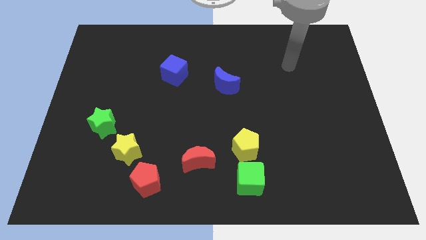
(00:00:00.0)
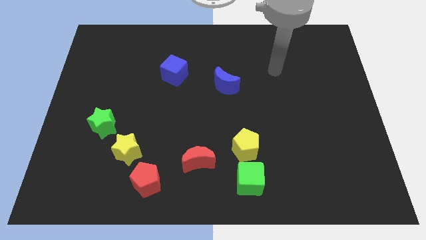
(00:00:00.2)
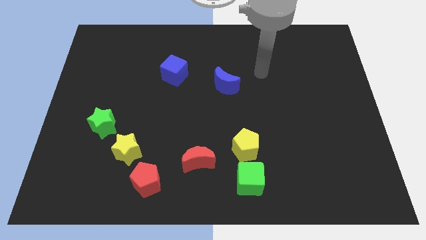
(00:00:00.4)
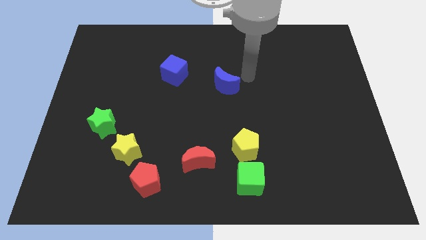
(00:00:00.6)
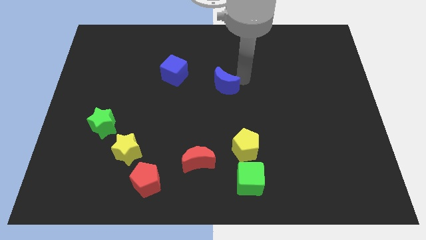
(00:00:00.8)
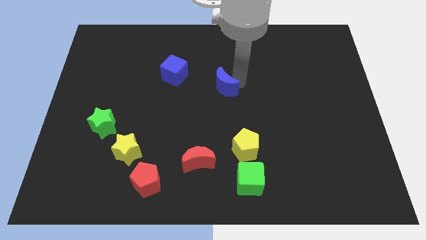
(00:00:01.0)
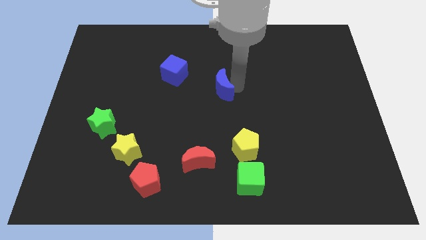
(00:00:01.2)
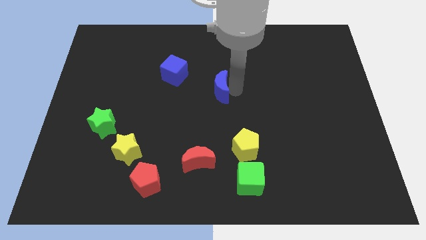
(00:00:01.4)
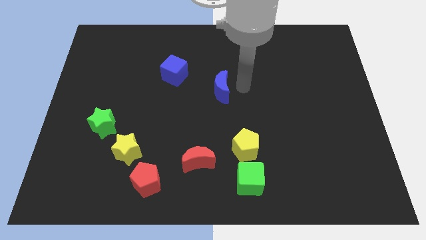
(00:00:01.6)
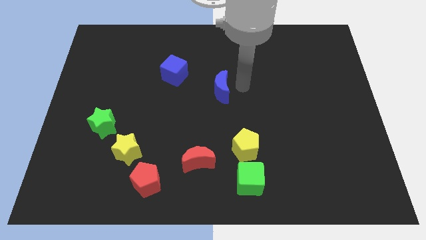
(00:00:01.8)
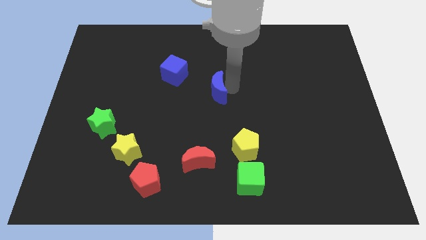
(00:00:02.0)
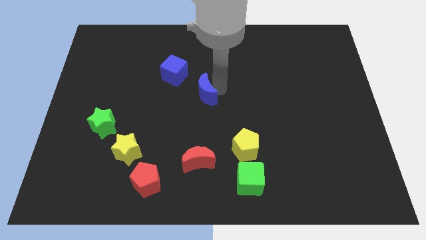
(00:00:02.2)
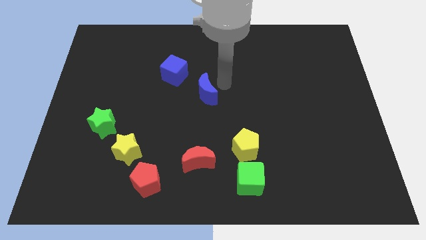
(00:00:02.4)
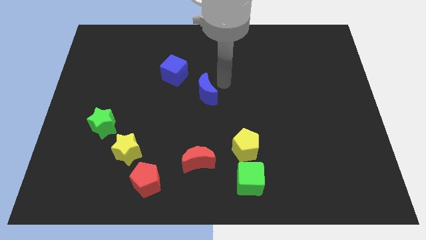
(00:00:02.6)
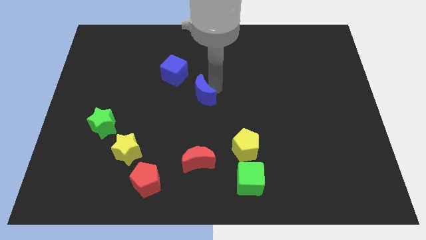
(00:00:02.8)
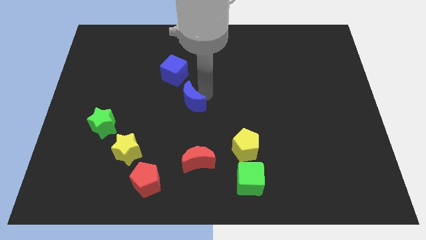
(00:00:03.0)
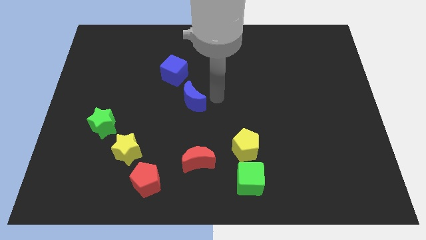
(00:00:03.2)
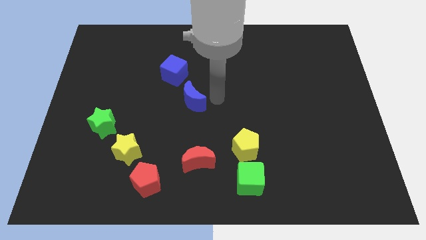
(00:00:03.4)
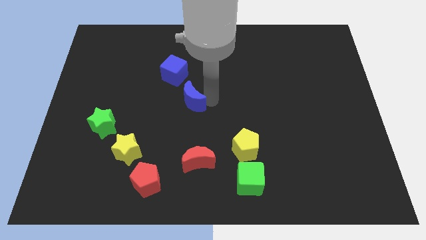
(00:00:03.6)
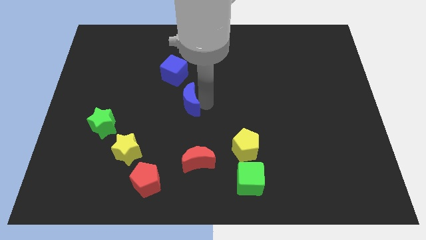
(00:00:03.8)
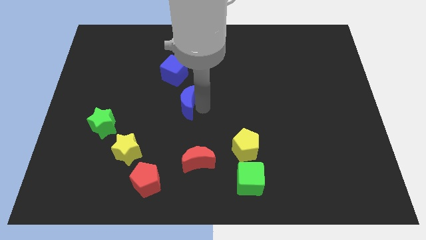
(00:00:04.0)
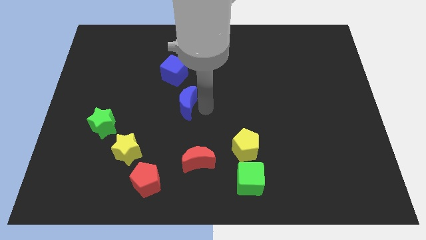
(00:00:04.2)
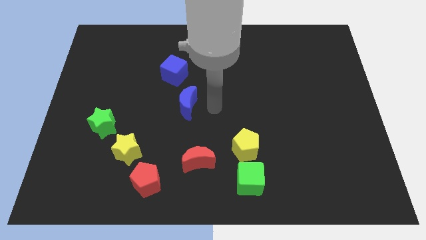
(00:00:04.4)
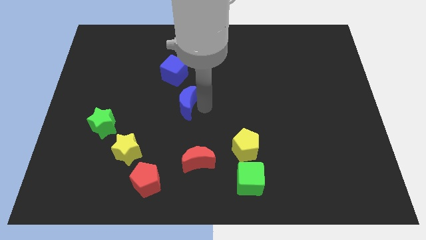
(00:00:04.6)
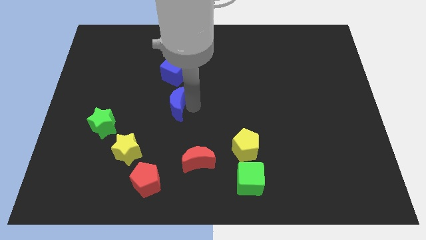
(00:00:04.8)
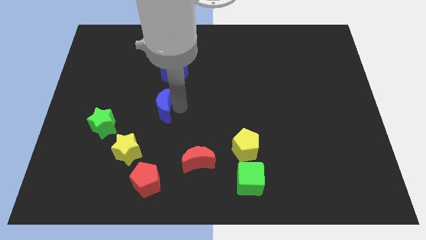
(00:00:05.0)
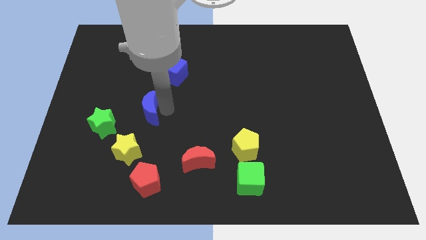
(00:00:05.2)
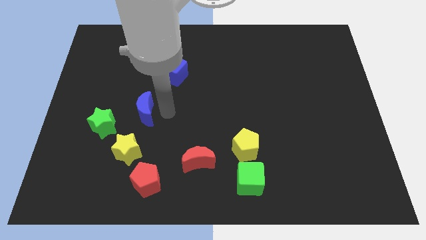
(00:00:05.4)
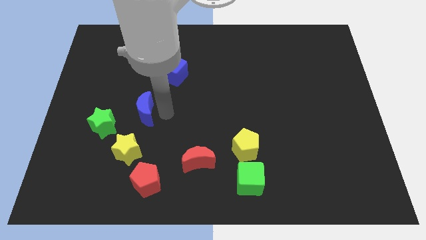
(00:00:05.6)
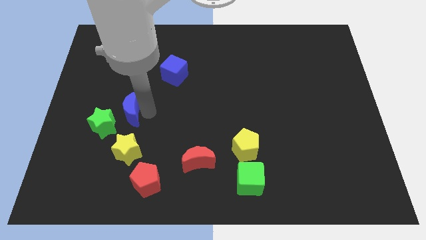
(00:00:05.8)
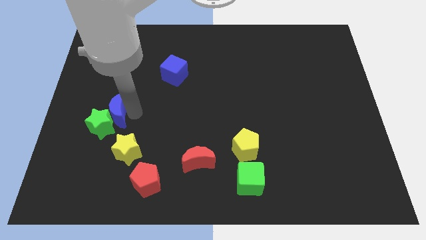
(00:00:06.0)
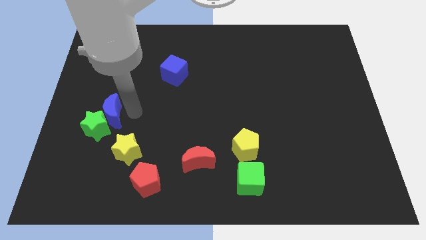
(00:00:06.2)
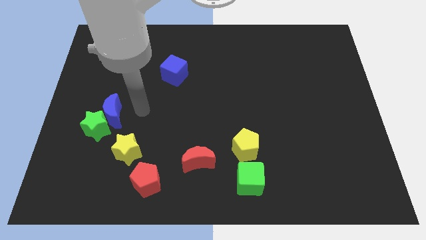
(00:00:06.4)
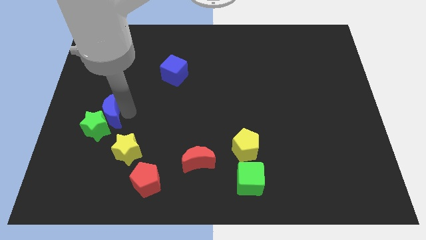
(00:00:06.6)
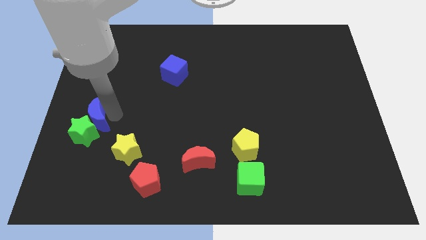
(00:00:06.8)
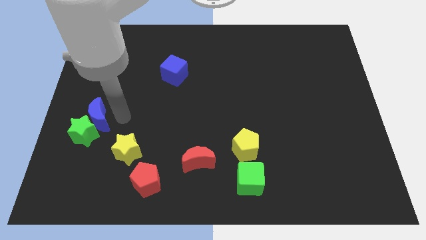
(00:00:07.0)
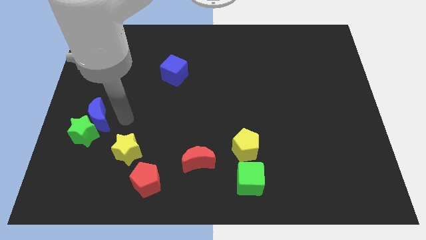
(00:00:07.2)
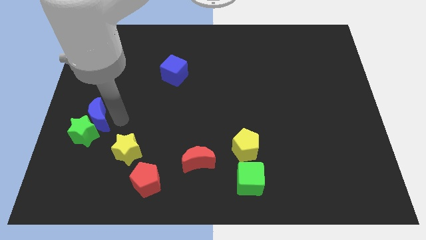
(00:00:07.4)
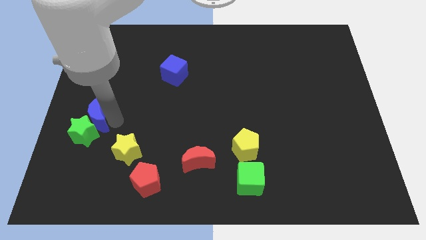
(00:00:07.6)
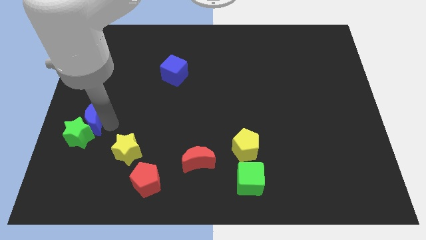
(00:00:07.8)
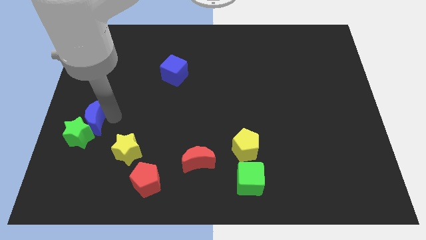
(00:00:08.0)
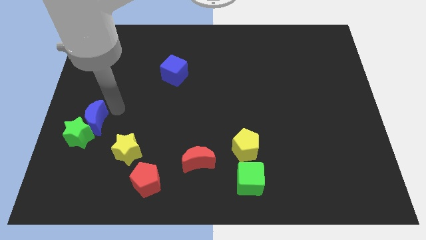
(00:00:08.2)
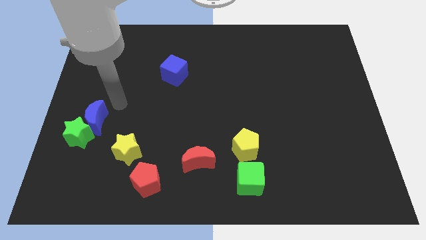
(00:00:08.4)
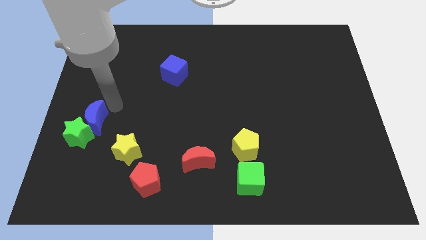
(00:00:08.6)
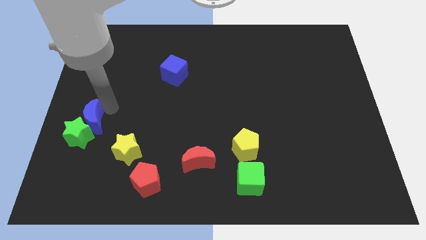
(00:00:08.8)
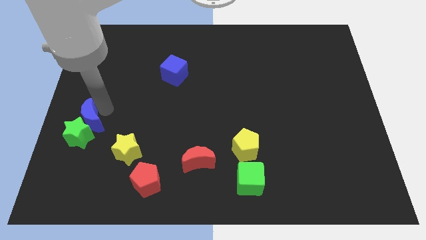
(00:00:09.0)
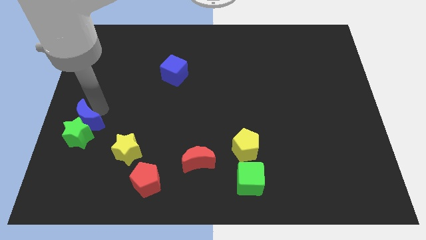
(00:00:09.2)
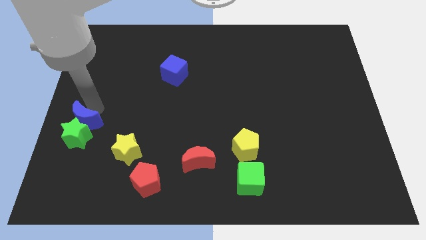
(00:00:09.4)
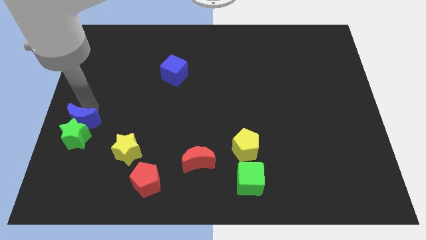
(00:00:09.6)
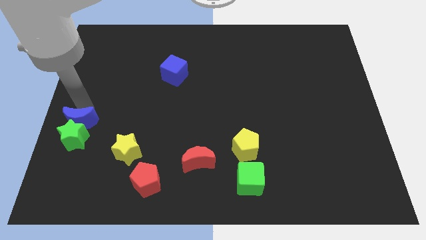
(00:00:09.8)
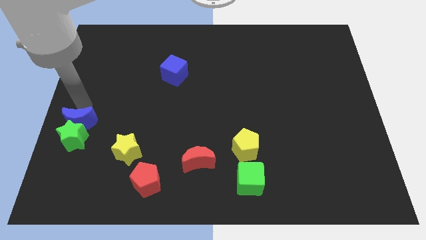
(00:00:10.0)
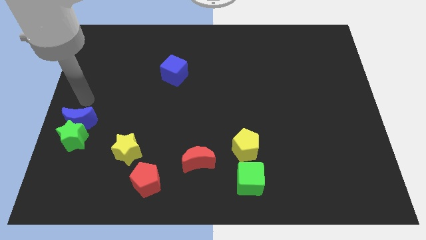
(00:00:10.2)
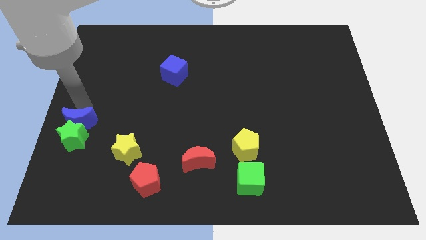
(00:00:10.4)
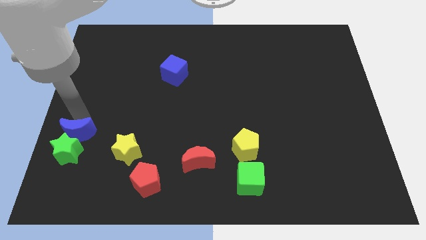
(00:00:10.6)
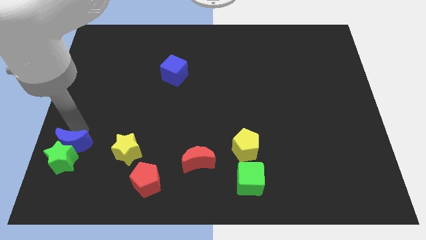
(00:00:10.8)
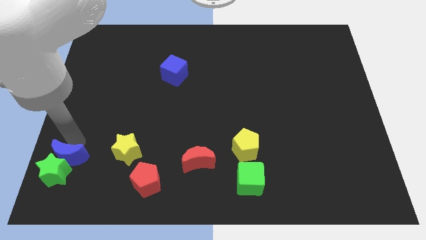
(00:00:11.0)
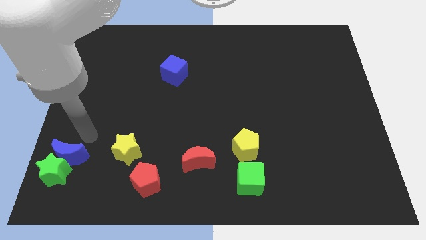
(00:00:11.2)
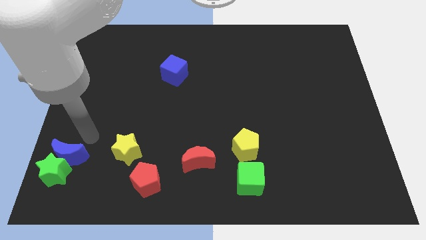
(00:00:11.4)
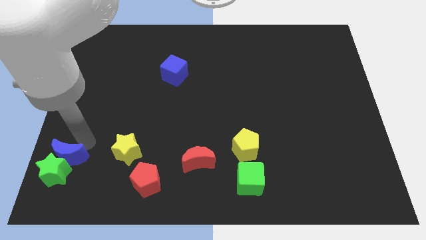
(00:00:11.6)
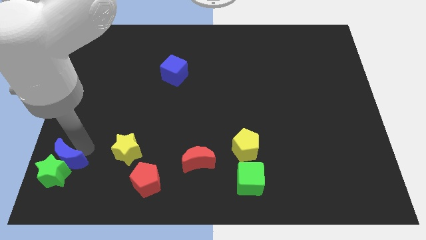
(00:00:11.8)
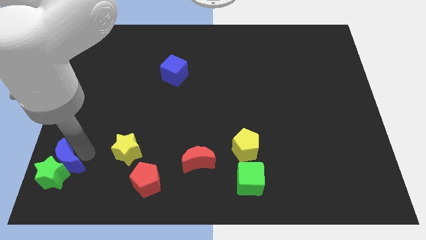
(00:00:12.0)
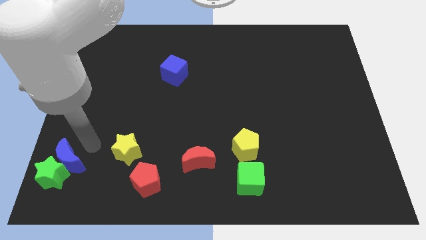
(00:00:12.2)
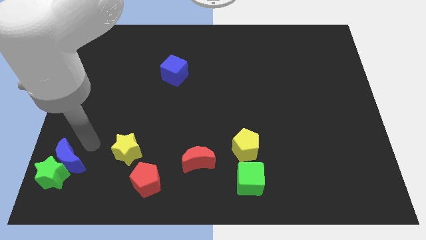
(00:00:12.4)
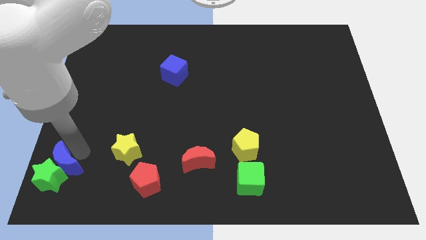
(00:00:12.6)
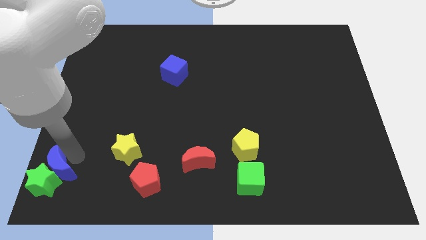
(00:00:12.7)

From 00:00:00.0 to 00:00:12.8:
move the blue moon to the bottom left of the board
